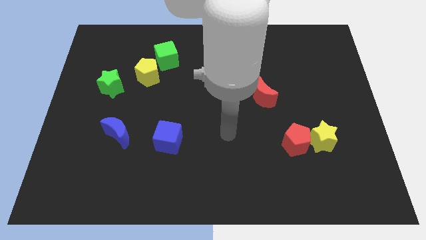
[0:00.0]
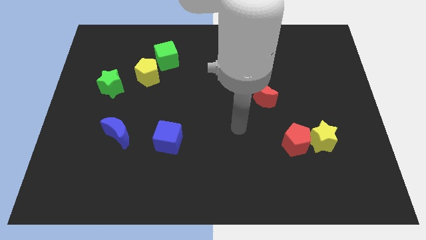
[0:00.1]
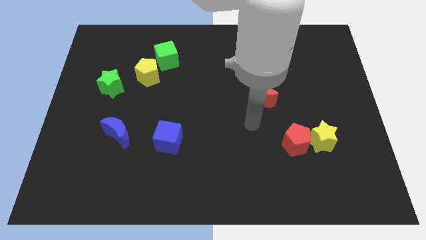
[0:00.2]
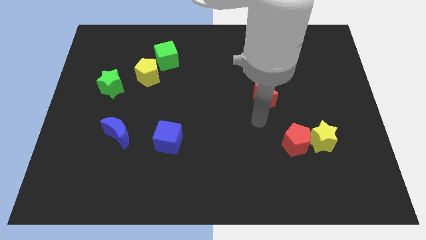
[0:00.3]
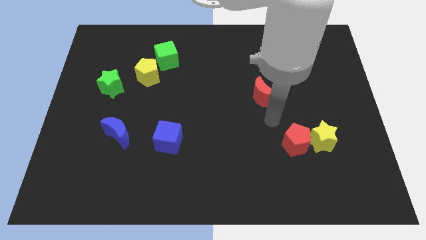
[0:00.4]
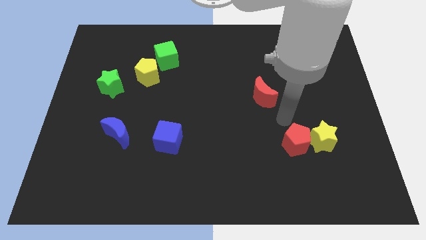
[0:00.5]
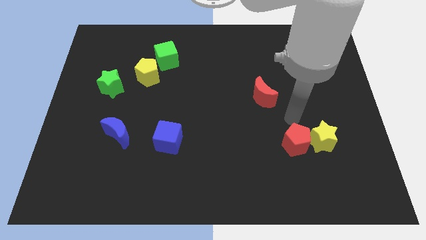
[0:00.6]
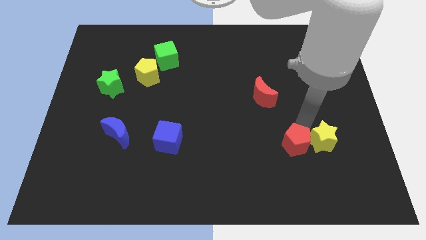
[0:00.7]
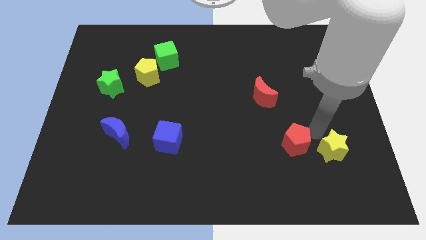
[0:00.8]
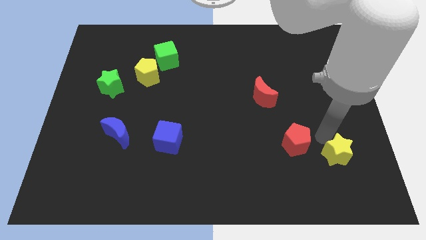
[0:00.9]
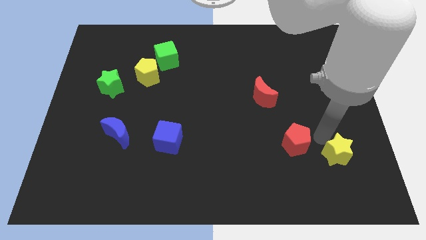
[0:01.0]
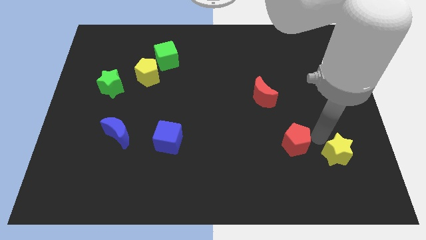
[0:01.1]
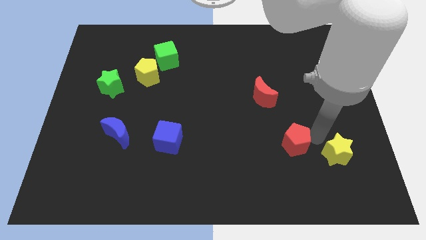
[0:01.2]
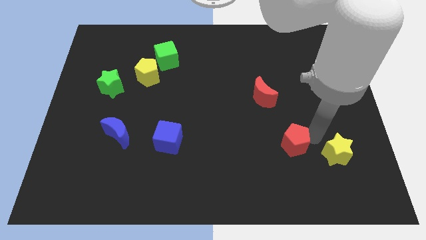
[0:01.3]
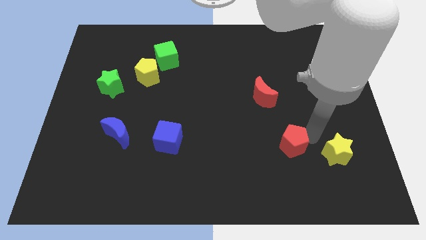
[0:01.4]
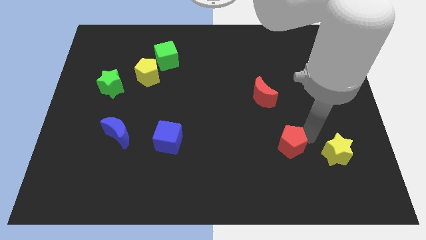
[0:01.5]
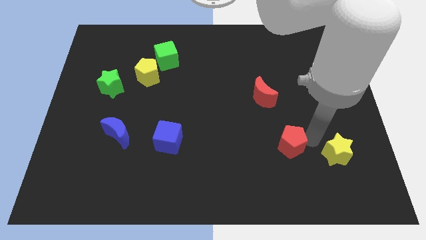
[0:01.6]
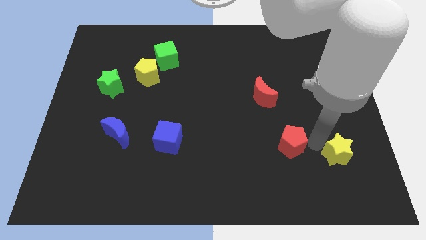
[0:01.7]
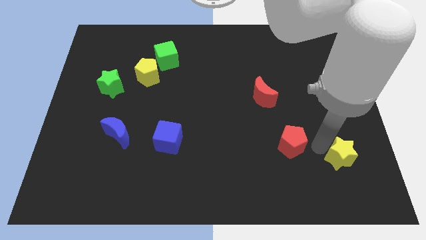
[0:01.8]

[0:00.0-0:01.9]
separate the red pentagon from the yellow star

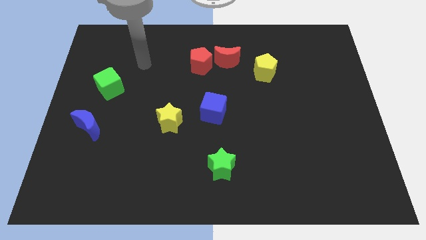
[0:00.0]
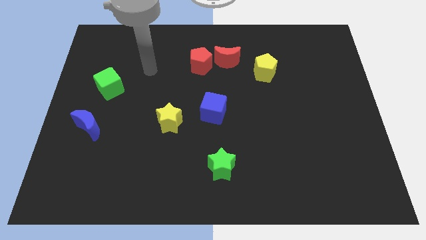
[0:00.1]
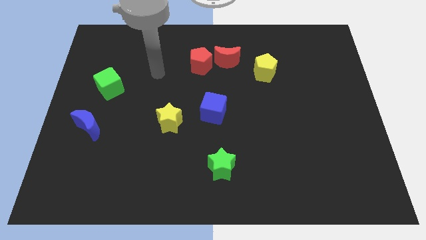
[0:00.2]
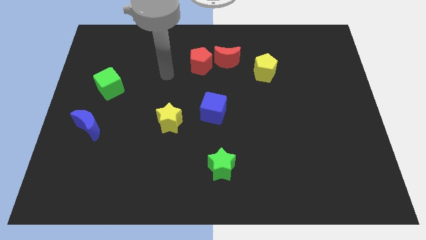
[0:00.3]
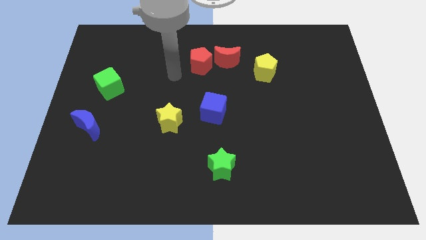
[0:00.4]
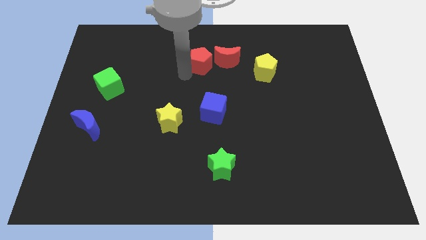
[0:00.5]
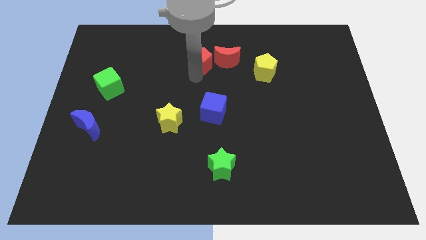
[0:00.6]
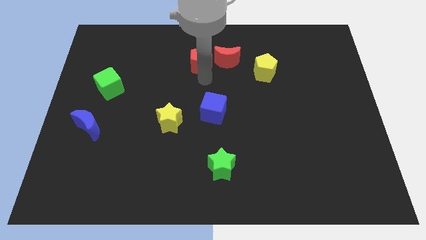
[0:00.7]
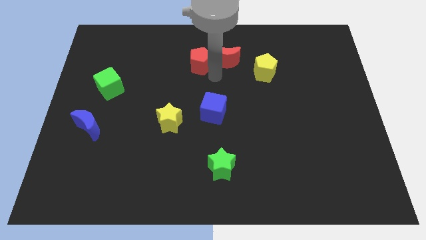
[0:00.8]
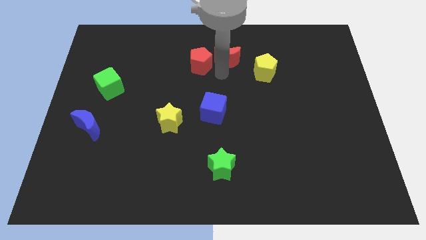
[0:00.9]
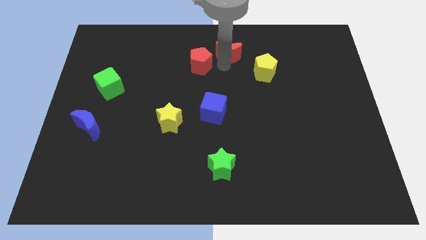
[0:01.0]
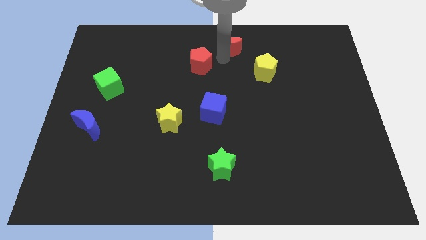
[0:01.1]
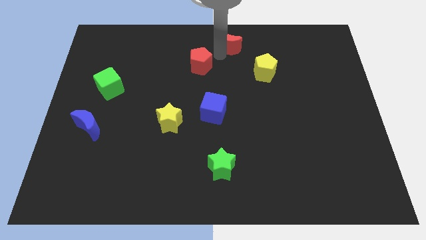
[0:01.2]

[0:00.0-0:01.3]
move the red pentagon away from the red moon

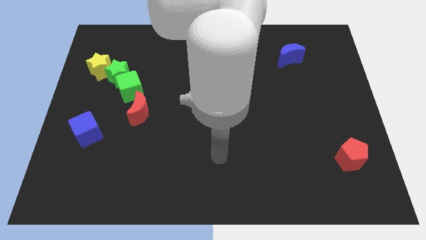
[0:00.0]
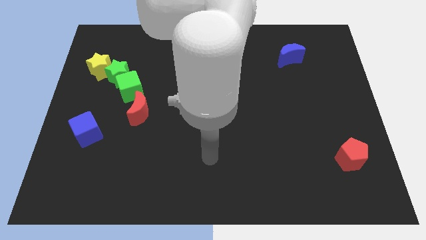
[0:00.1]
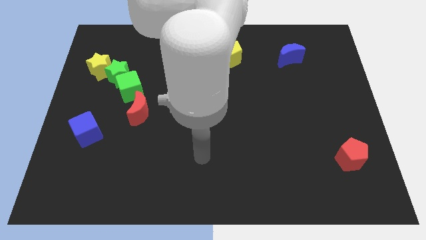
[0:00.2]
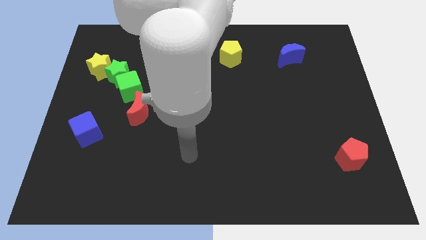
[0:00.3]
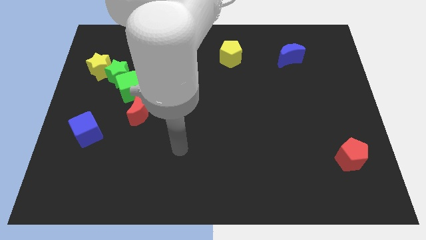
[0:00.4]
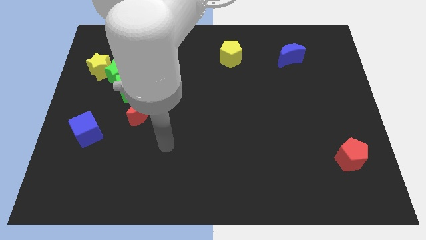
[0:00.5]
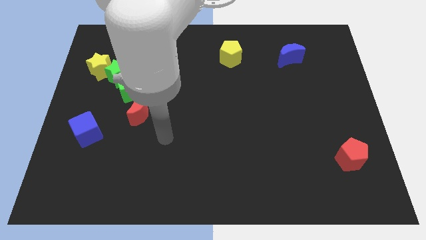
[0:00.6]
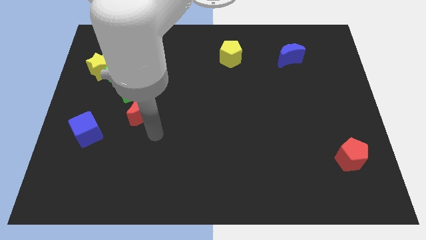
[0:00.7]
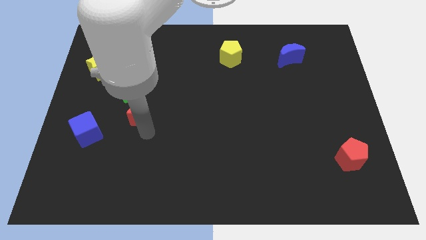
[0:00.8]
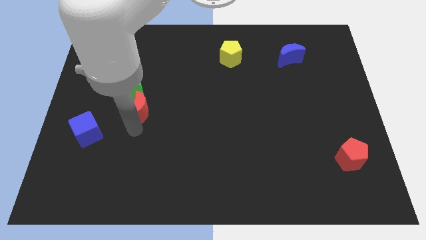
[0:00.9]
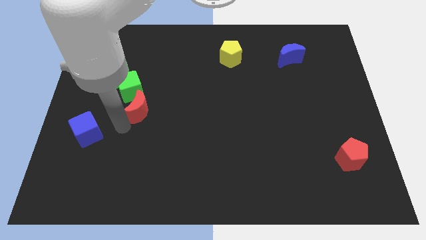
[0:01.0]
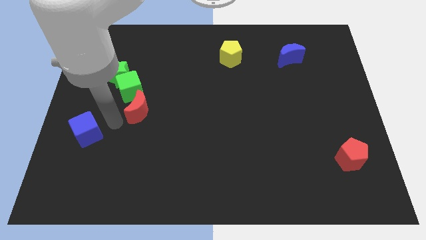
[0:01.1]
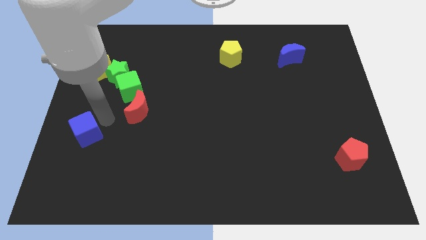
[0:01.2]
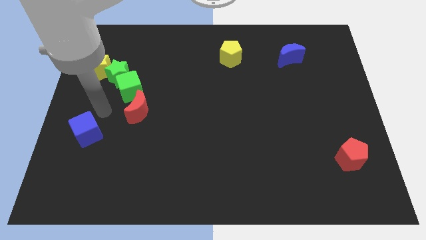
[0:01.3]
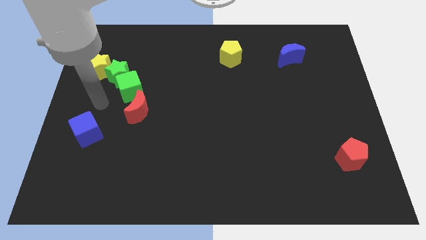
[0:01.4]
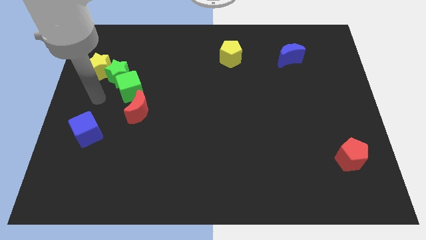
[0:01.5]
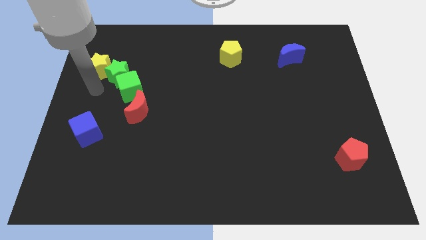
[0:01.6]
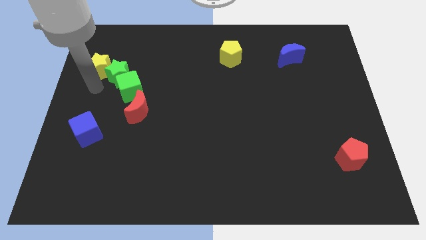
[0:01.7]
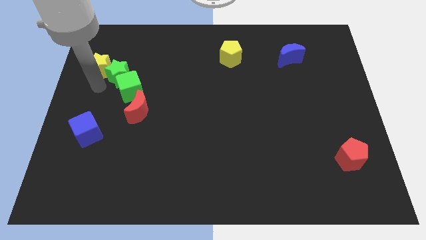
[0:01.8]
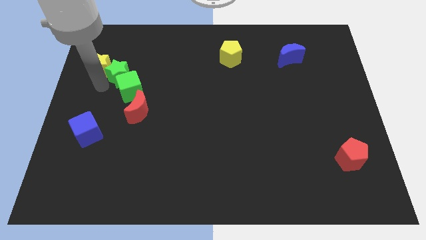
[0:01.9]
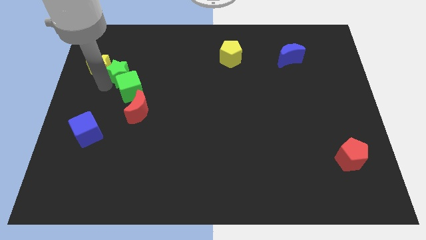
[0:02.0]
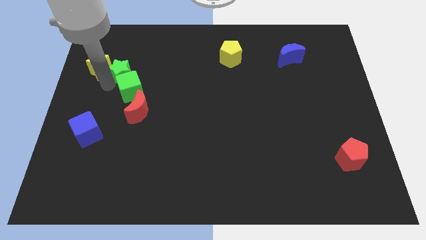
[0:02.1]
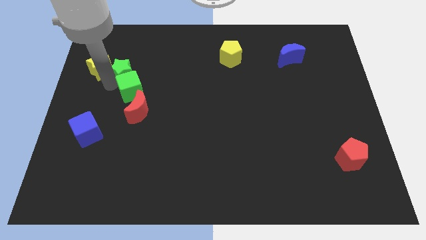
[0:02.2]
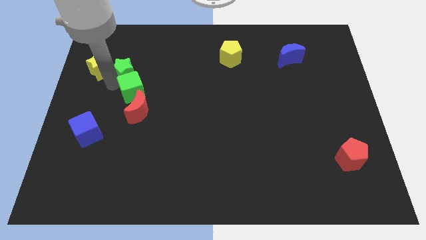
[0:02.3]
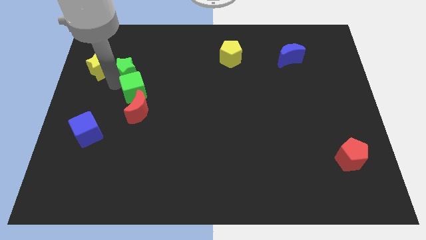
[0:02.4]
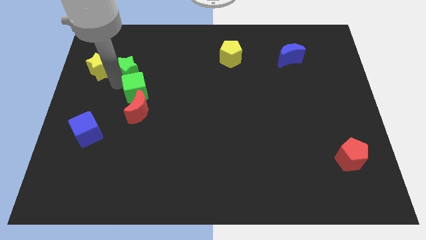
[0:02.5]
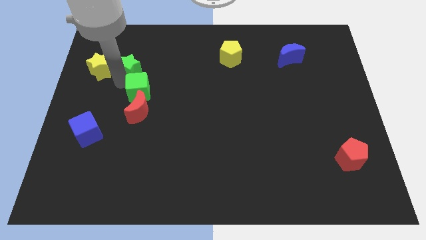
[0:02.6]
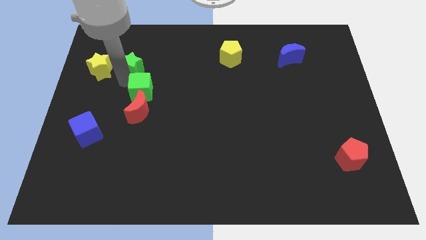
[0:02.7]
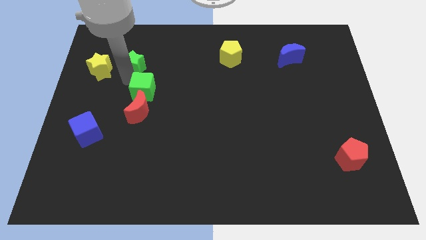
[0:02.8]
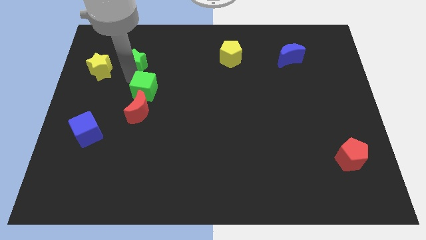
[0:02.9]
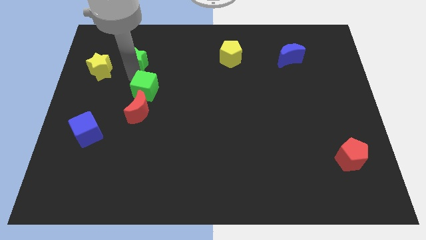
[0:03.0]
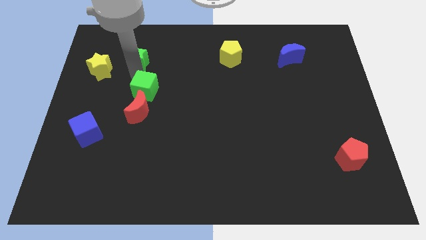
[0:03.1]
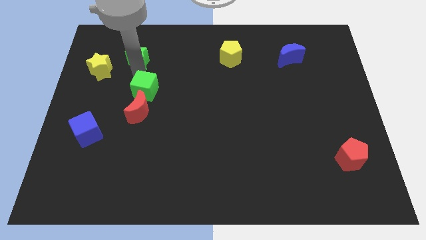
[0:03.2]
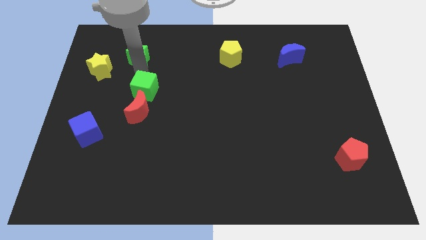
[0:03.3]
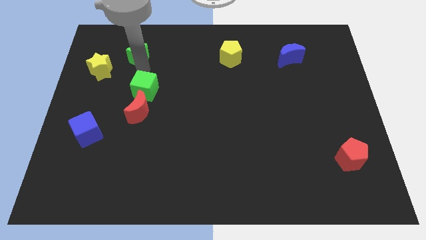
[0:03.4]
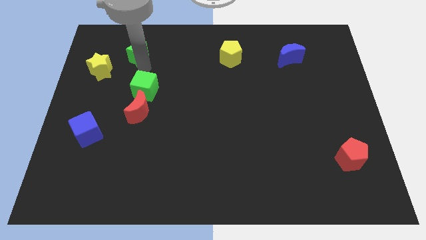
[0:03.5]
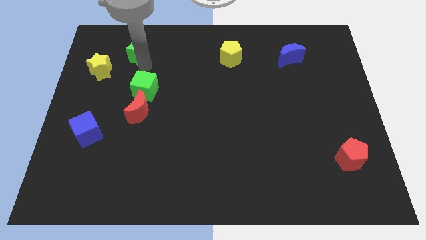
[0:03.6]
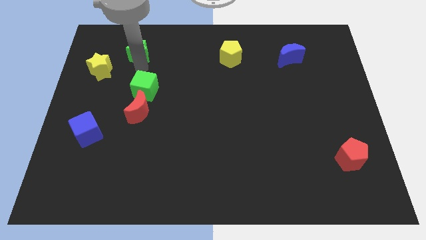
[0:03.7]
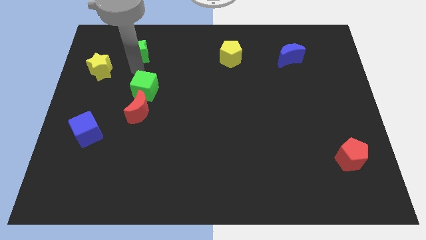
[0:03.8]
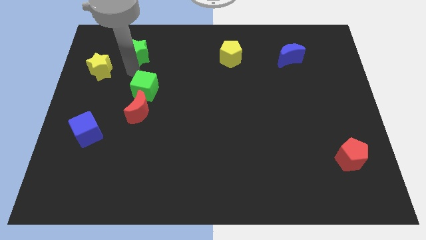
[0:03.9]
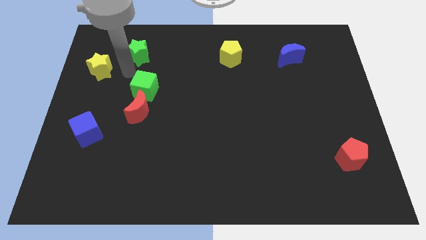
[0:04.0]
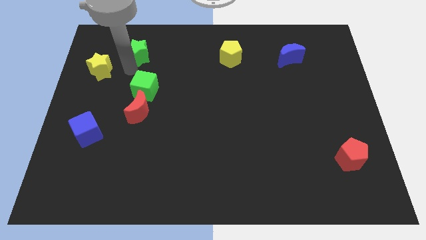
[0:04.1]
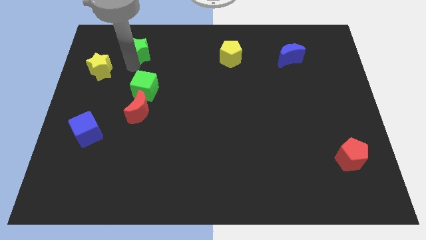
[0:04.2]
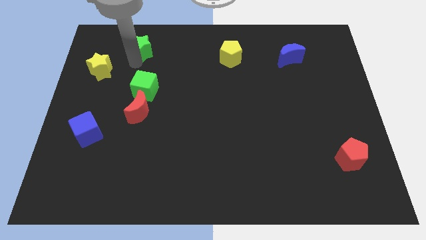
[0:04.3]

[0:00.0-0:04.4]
pull the green star apart from the green cube and yellow star

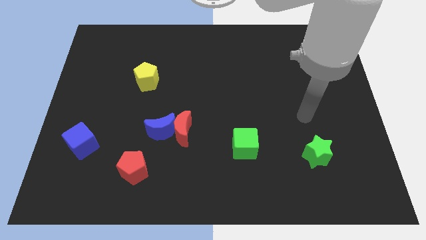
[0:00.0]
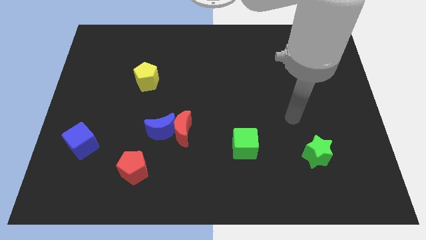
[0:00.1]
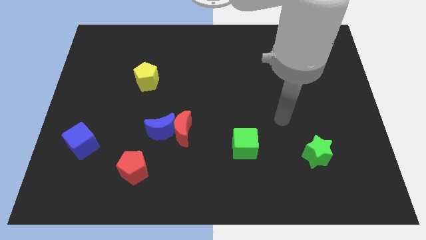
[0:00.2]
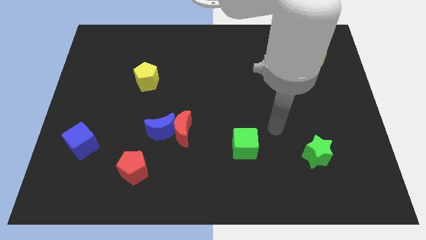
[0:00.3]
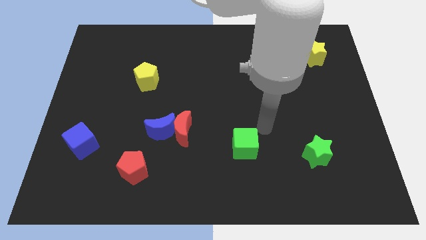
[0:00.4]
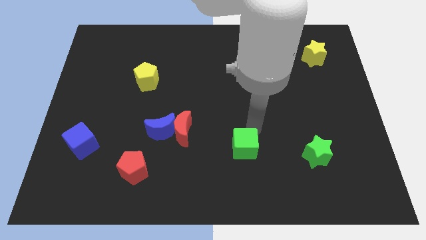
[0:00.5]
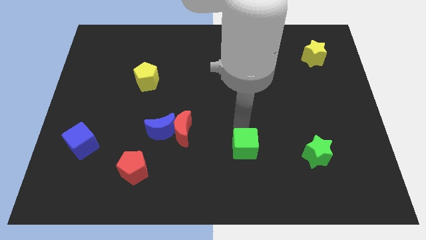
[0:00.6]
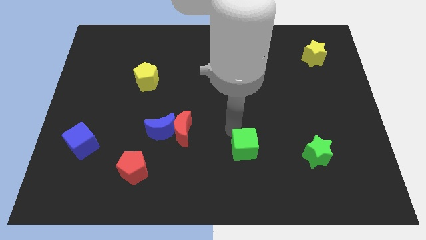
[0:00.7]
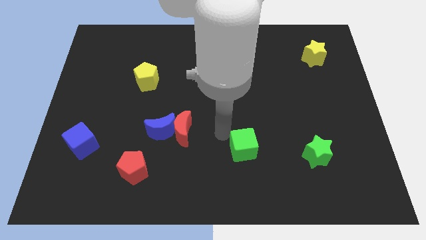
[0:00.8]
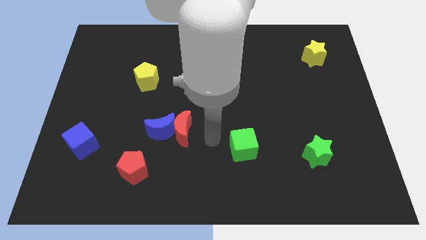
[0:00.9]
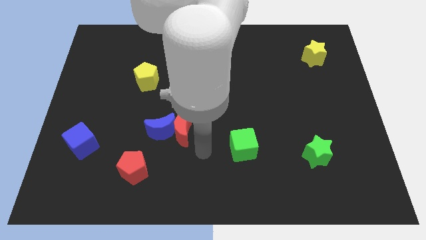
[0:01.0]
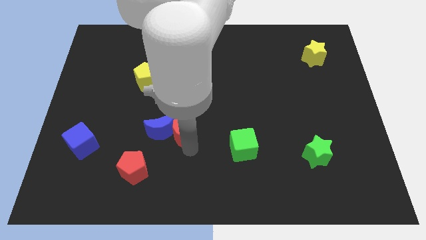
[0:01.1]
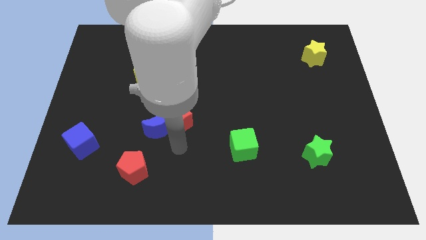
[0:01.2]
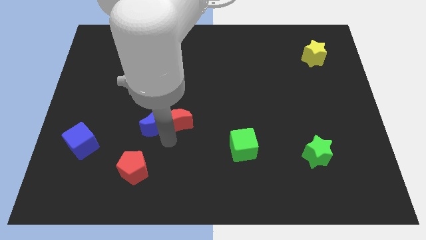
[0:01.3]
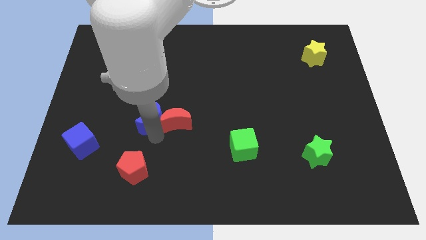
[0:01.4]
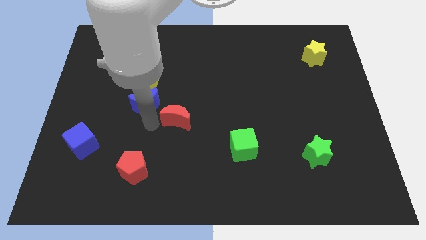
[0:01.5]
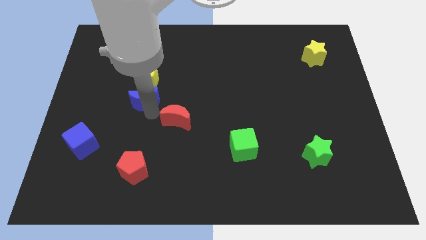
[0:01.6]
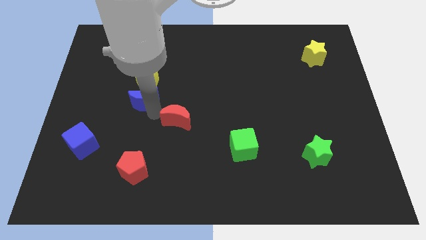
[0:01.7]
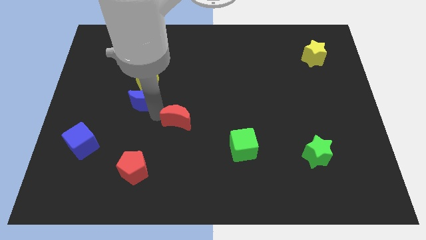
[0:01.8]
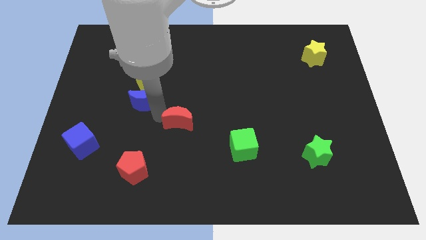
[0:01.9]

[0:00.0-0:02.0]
move the red moon away from the blue moon
